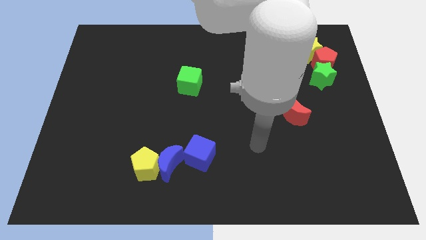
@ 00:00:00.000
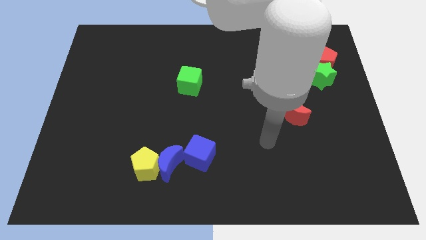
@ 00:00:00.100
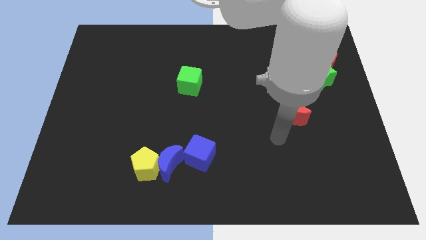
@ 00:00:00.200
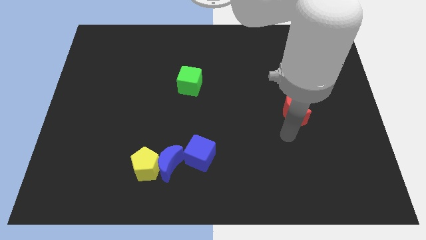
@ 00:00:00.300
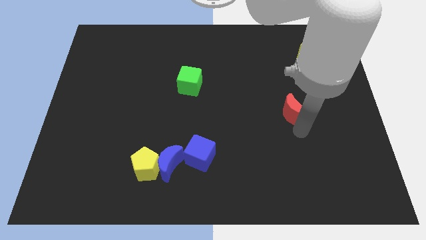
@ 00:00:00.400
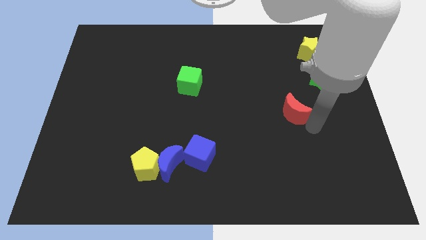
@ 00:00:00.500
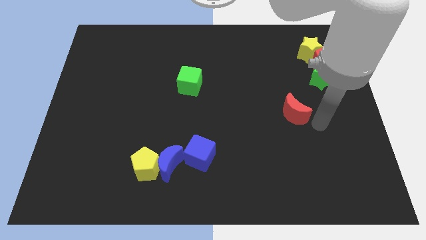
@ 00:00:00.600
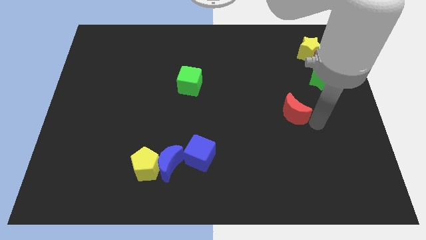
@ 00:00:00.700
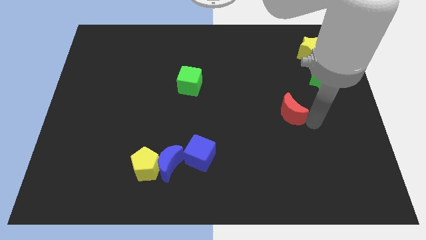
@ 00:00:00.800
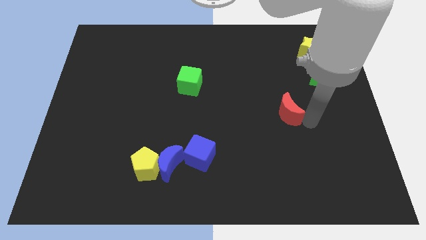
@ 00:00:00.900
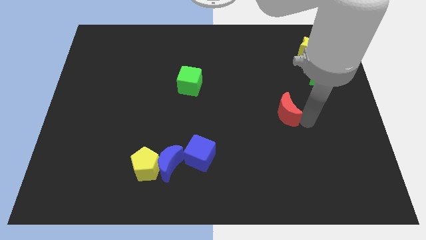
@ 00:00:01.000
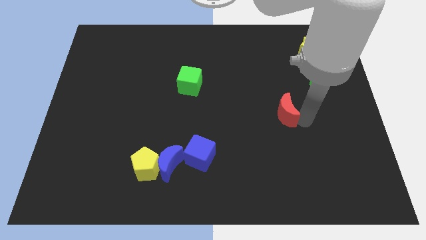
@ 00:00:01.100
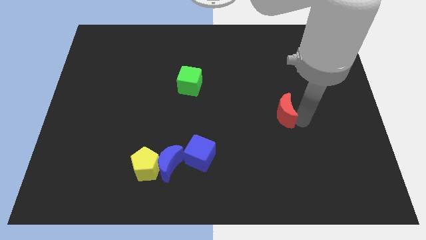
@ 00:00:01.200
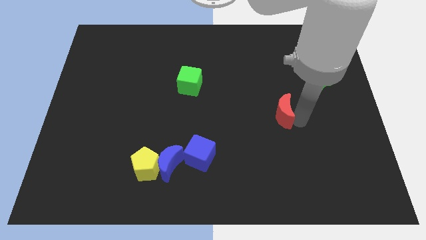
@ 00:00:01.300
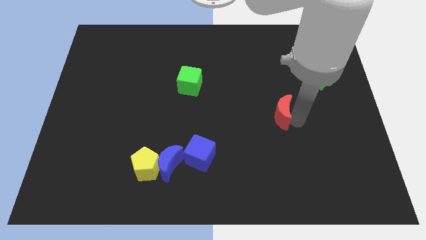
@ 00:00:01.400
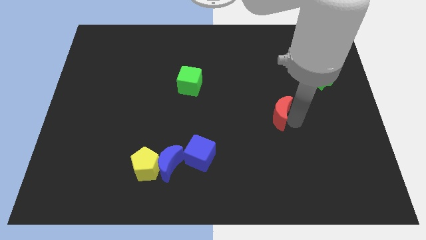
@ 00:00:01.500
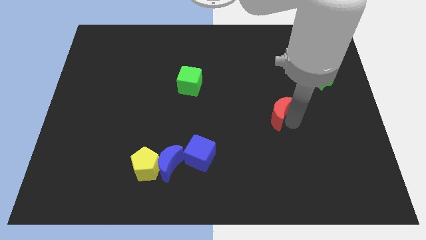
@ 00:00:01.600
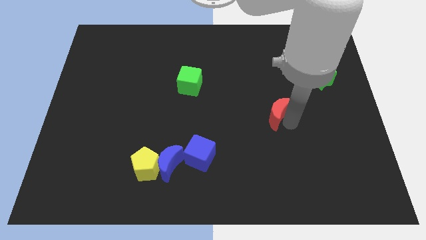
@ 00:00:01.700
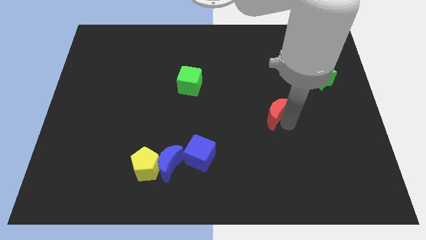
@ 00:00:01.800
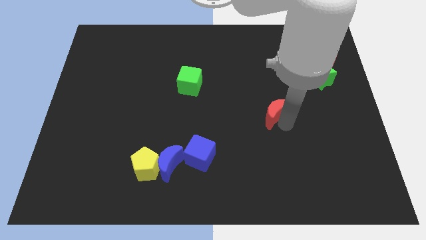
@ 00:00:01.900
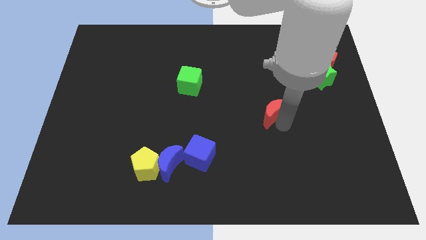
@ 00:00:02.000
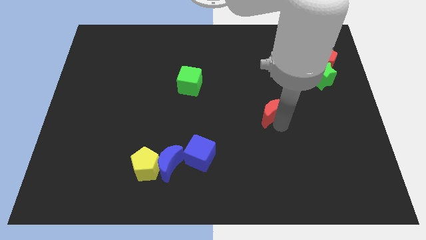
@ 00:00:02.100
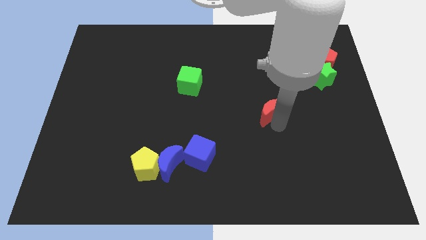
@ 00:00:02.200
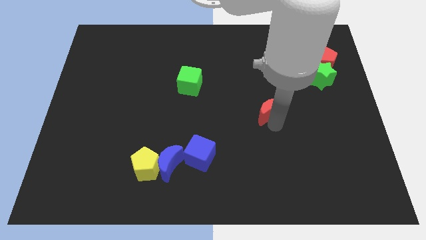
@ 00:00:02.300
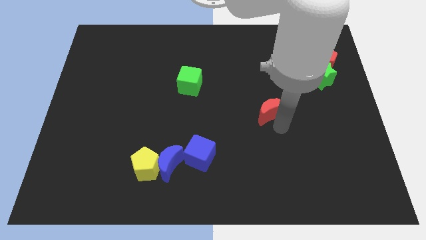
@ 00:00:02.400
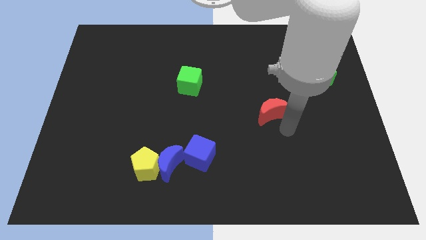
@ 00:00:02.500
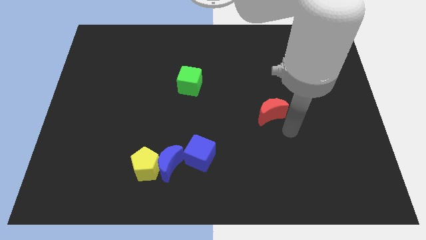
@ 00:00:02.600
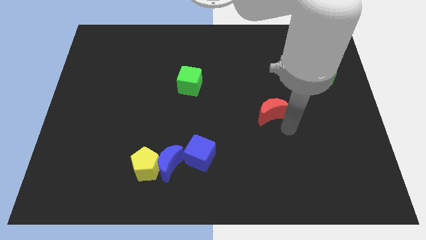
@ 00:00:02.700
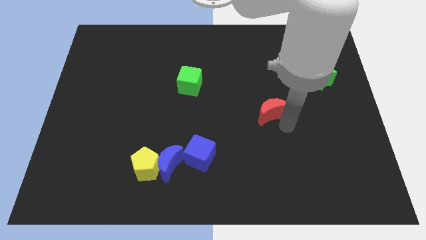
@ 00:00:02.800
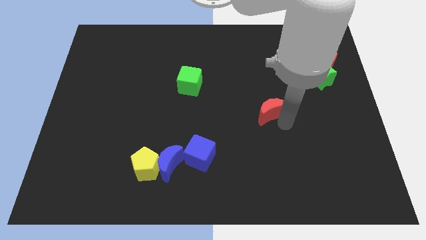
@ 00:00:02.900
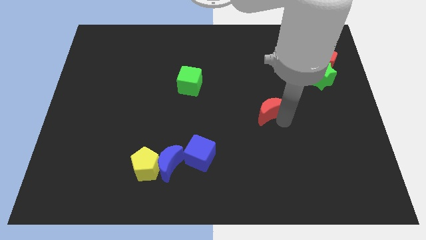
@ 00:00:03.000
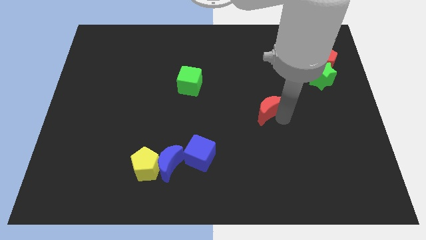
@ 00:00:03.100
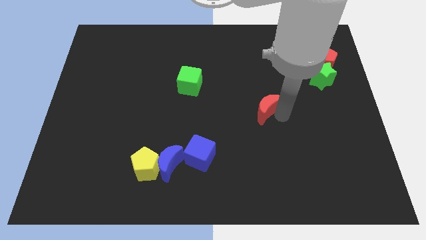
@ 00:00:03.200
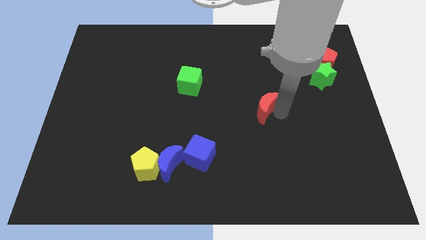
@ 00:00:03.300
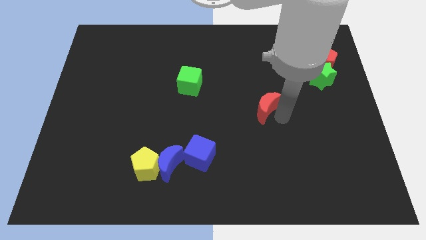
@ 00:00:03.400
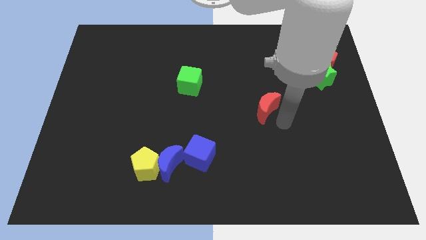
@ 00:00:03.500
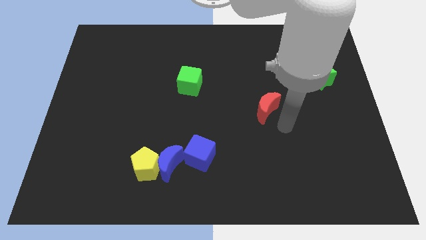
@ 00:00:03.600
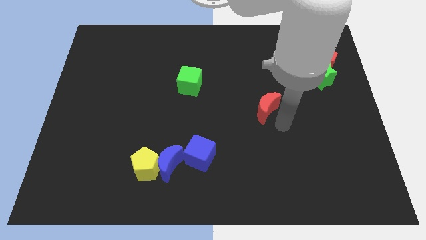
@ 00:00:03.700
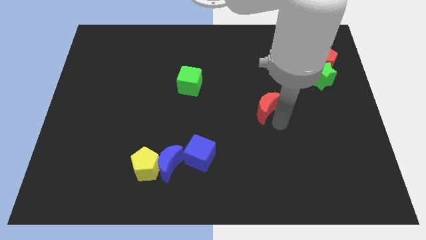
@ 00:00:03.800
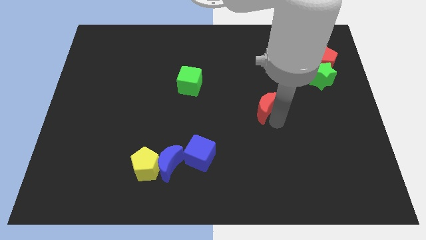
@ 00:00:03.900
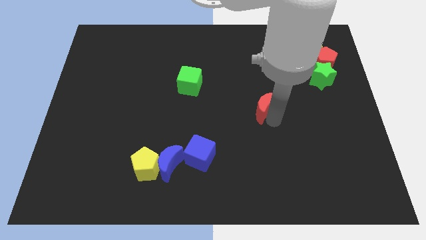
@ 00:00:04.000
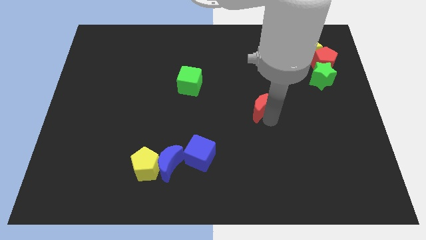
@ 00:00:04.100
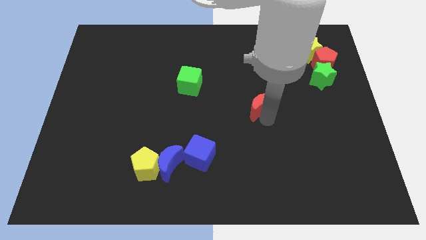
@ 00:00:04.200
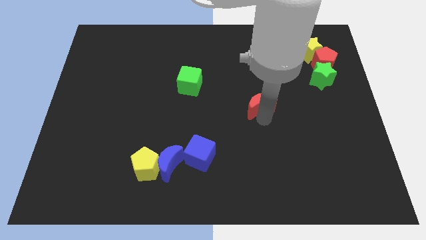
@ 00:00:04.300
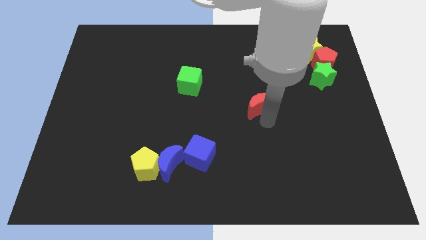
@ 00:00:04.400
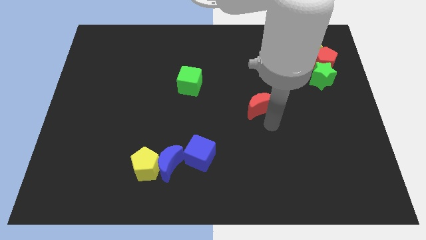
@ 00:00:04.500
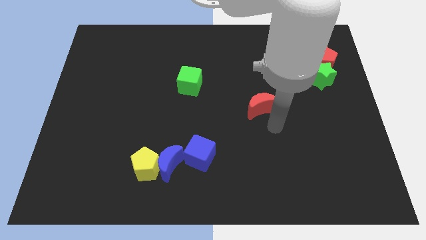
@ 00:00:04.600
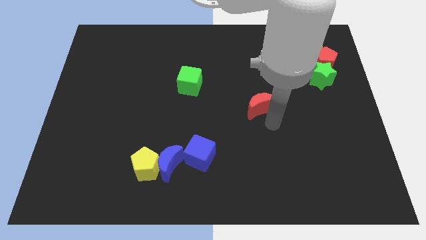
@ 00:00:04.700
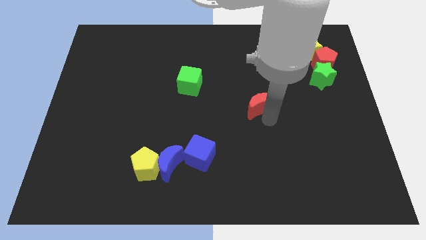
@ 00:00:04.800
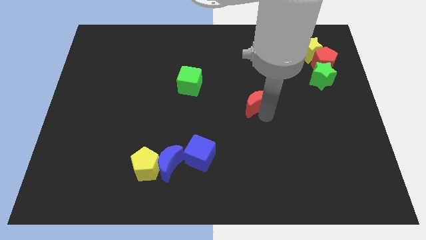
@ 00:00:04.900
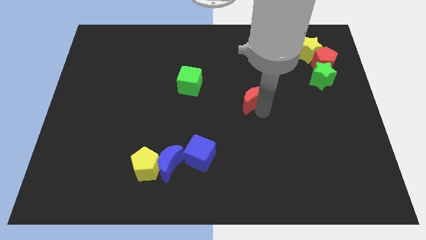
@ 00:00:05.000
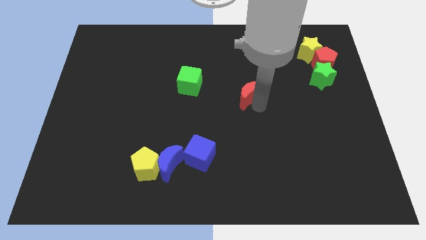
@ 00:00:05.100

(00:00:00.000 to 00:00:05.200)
move the red moon right of the green cube

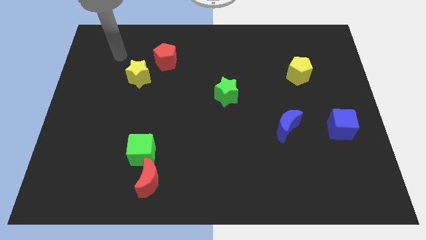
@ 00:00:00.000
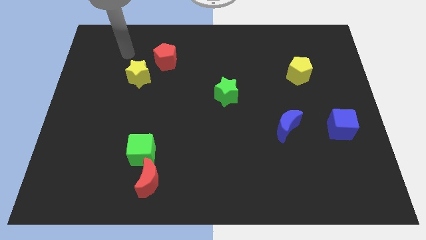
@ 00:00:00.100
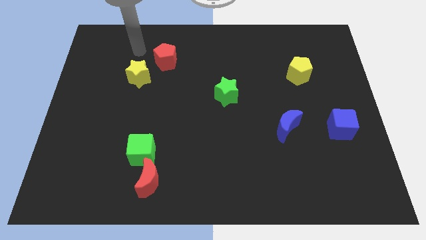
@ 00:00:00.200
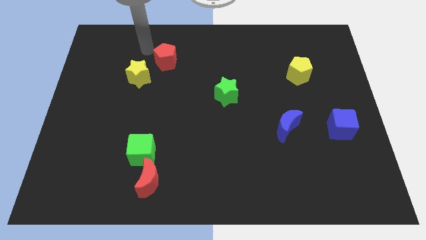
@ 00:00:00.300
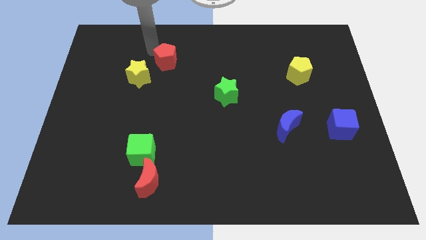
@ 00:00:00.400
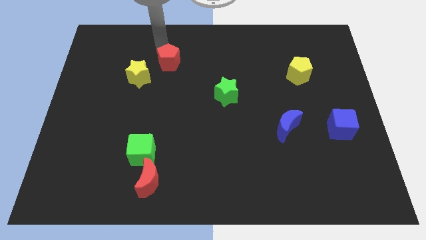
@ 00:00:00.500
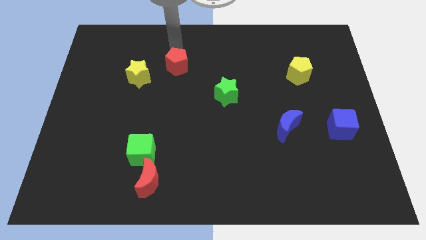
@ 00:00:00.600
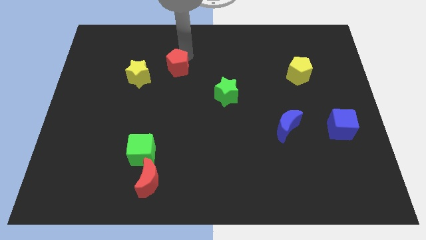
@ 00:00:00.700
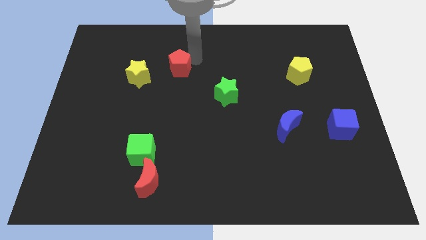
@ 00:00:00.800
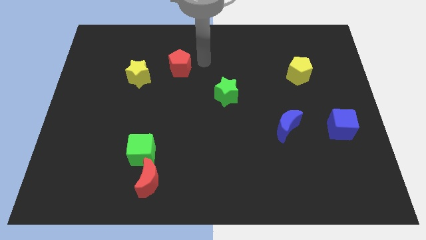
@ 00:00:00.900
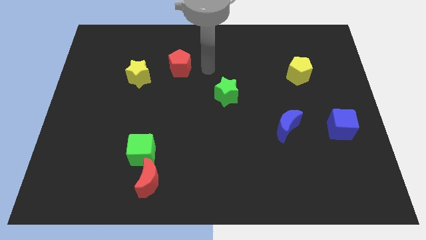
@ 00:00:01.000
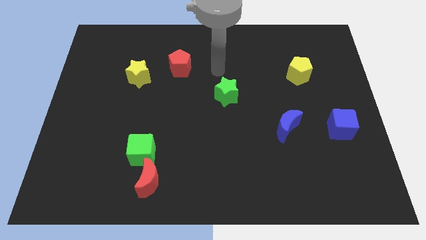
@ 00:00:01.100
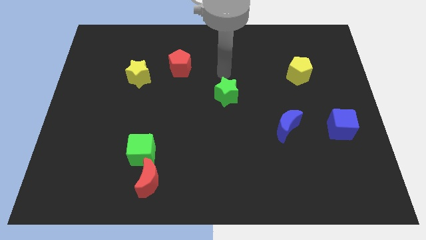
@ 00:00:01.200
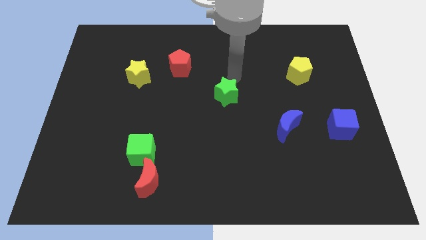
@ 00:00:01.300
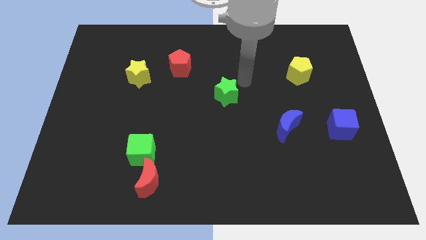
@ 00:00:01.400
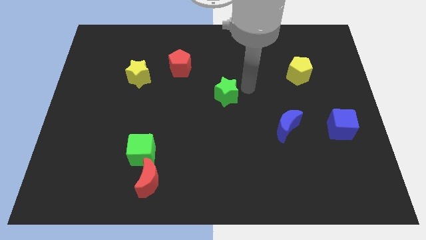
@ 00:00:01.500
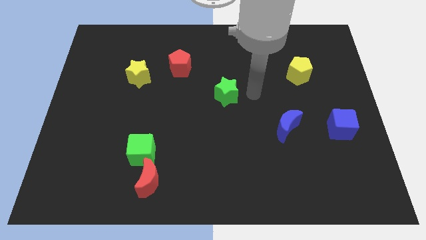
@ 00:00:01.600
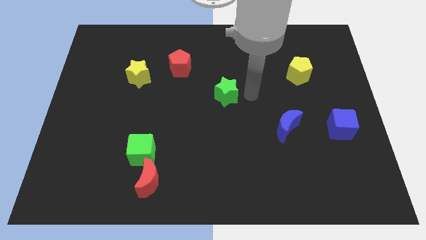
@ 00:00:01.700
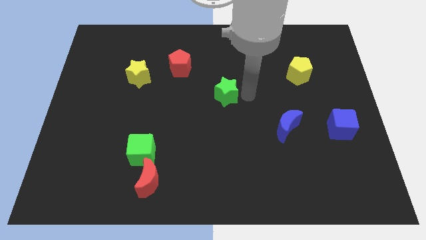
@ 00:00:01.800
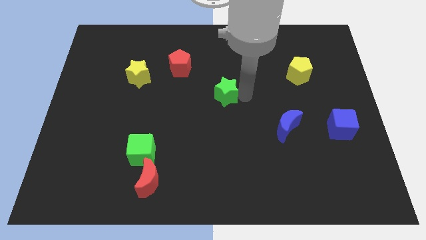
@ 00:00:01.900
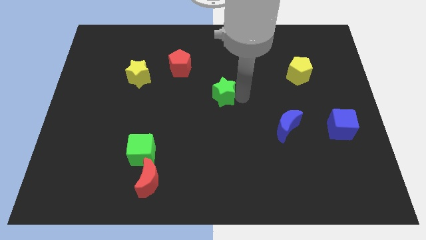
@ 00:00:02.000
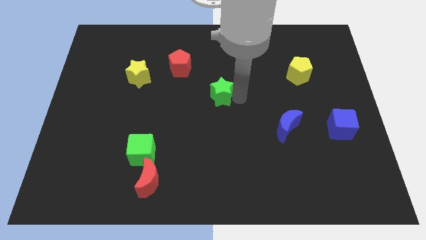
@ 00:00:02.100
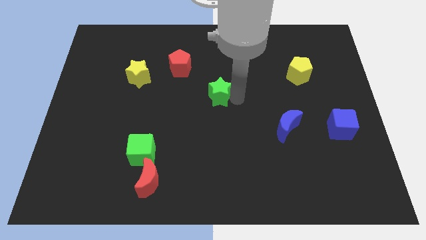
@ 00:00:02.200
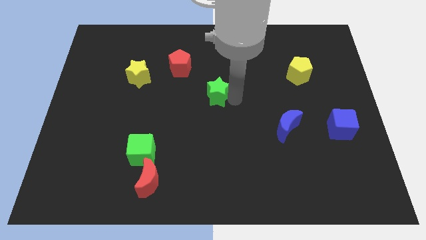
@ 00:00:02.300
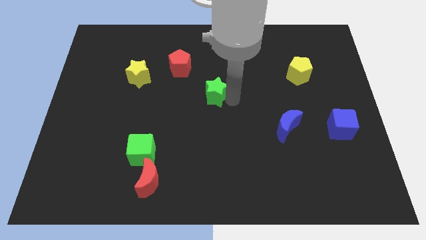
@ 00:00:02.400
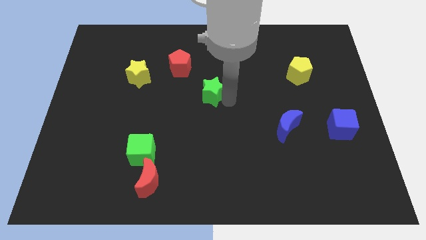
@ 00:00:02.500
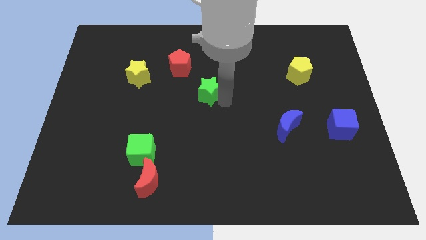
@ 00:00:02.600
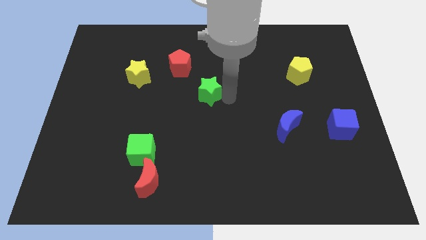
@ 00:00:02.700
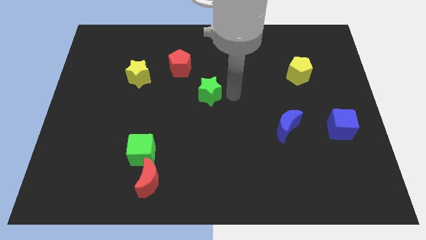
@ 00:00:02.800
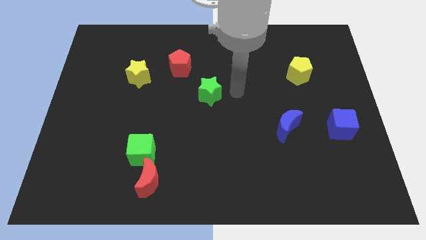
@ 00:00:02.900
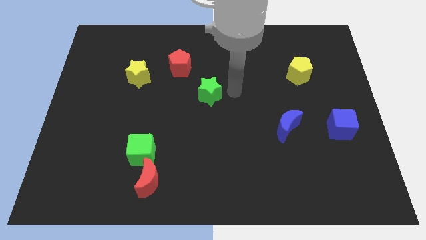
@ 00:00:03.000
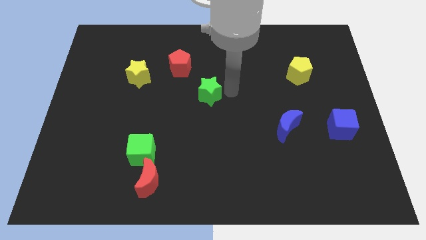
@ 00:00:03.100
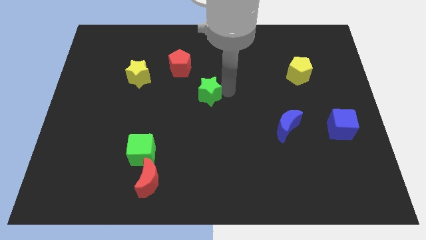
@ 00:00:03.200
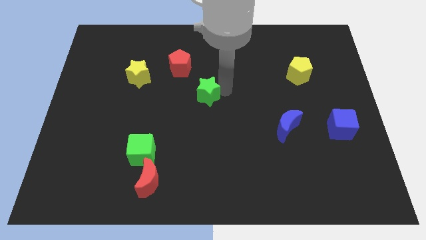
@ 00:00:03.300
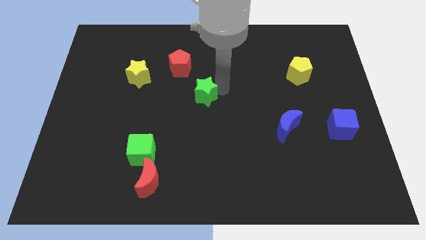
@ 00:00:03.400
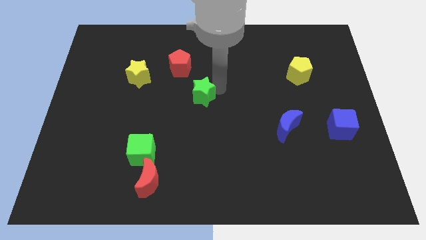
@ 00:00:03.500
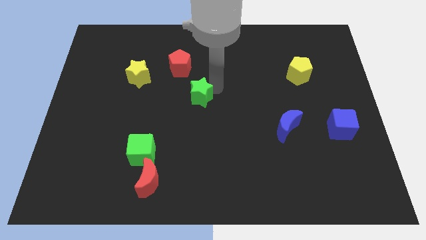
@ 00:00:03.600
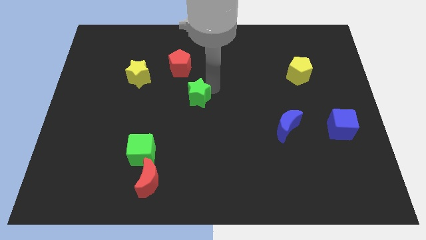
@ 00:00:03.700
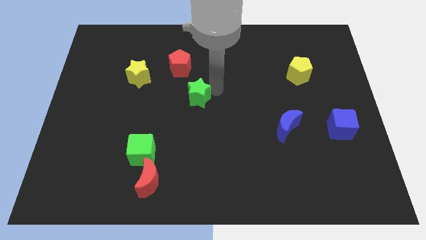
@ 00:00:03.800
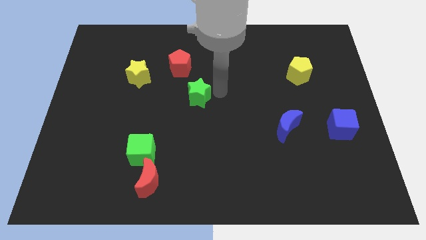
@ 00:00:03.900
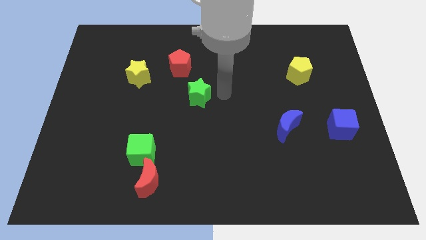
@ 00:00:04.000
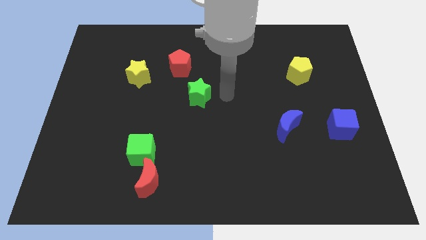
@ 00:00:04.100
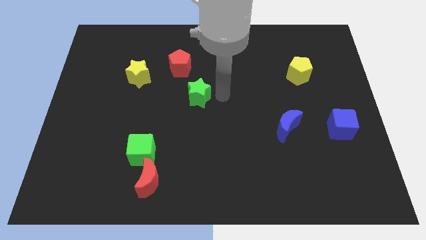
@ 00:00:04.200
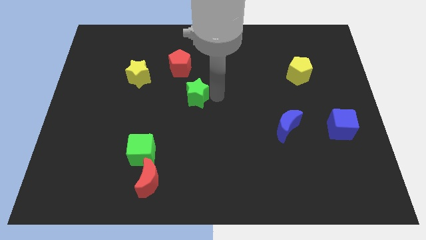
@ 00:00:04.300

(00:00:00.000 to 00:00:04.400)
slide the green star below the red pentagon
